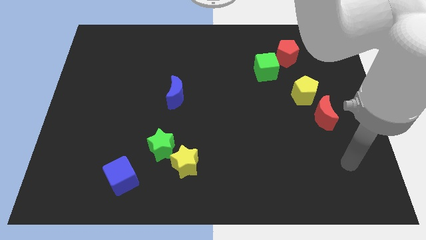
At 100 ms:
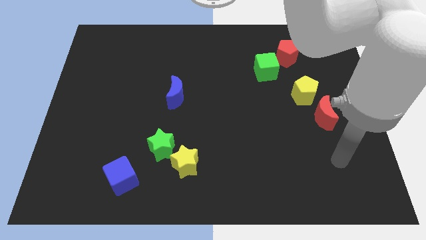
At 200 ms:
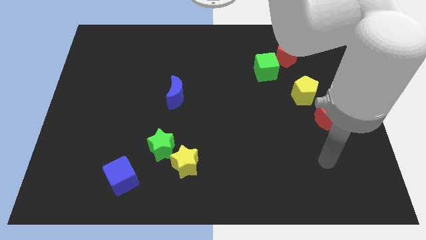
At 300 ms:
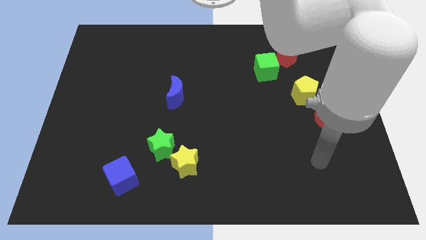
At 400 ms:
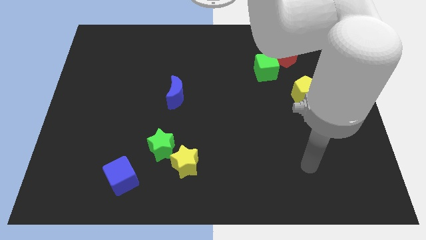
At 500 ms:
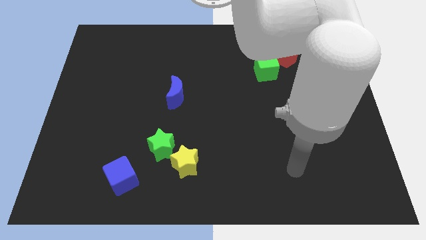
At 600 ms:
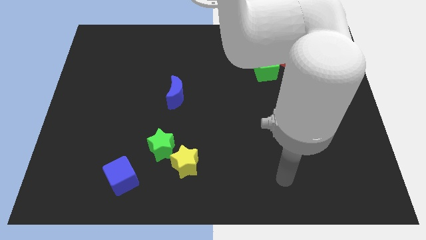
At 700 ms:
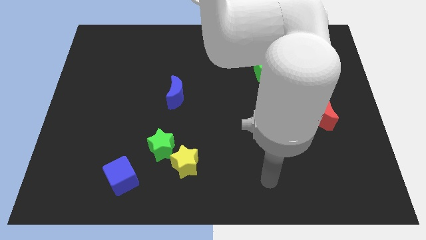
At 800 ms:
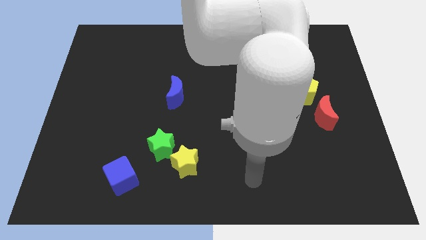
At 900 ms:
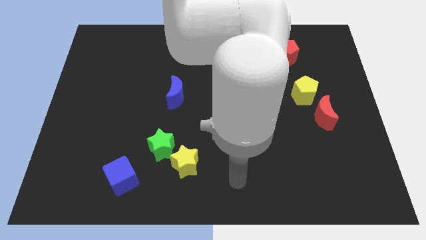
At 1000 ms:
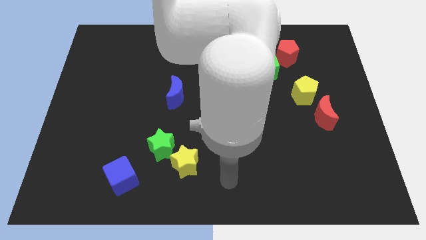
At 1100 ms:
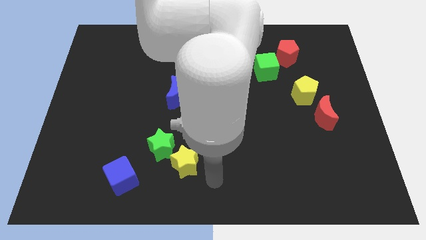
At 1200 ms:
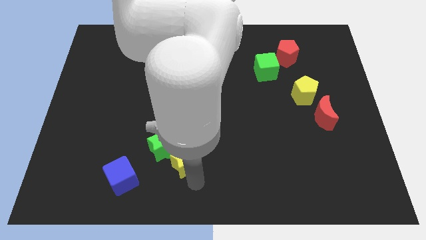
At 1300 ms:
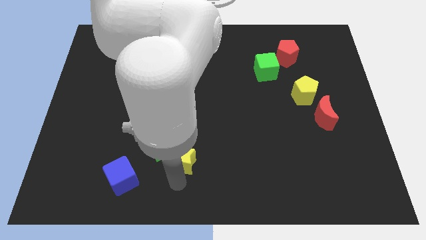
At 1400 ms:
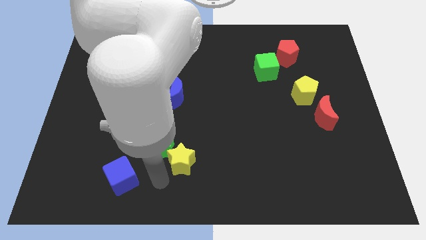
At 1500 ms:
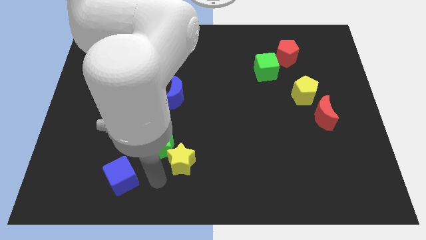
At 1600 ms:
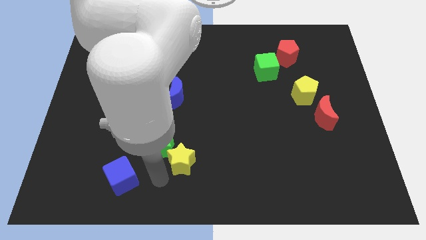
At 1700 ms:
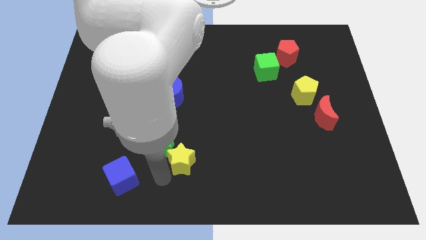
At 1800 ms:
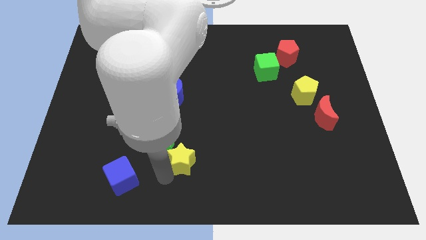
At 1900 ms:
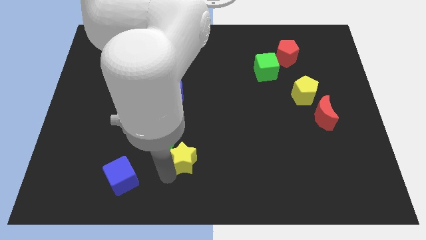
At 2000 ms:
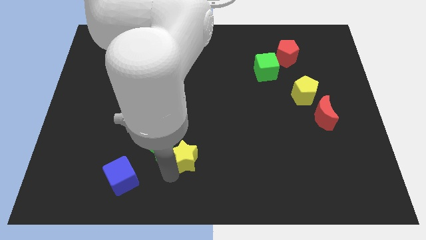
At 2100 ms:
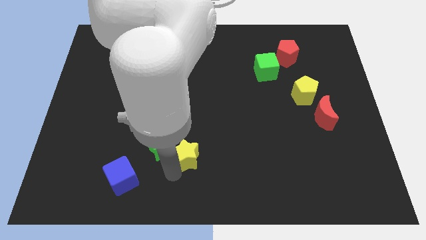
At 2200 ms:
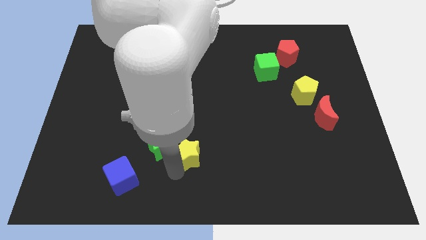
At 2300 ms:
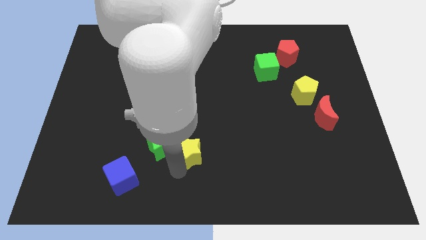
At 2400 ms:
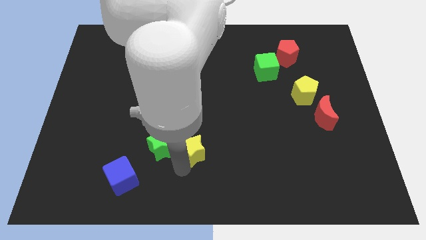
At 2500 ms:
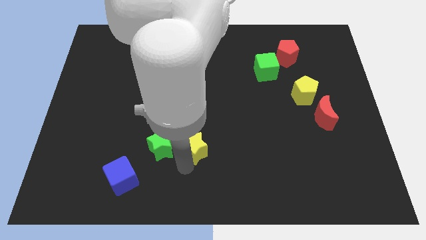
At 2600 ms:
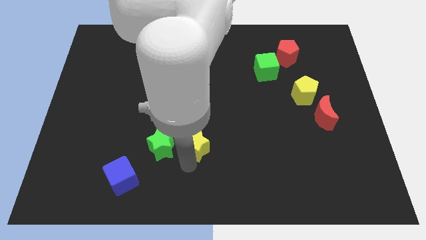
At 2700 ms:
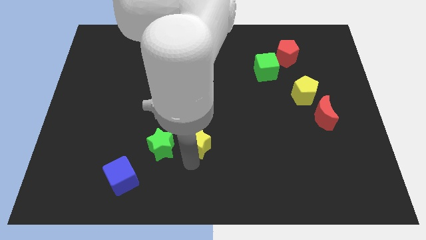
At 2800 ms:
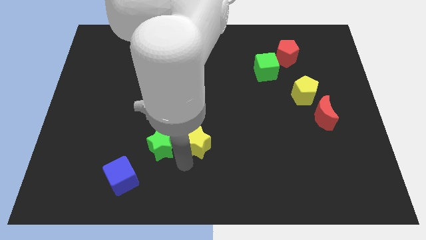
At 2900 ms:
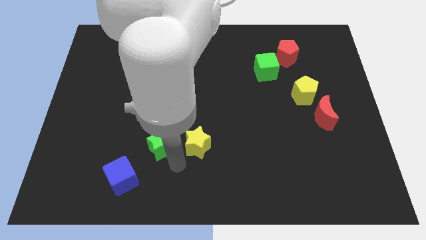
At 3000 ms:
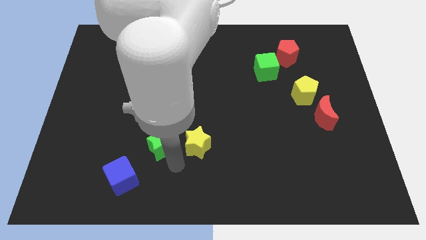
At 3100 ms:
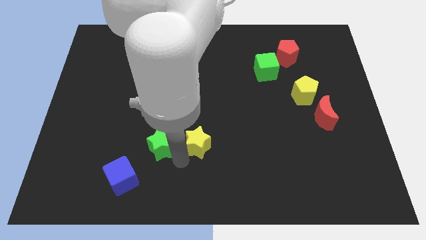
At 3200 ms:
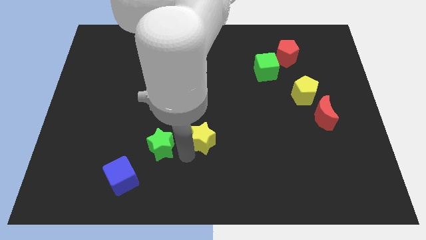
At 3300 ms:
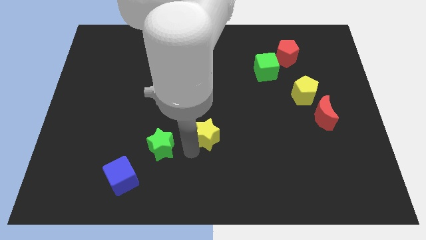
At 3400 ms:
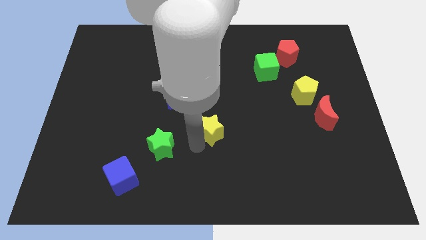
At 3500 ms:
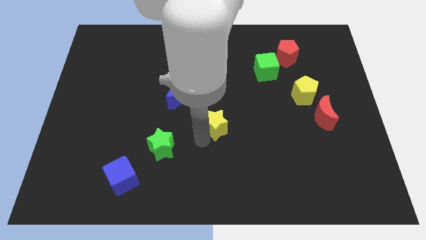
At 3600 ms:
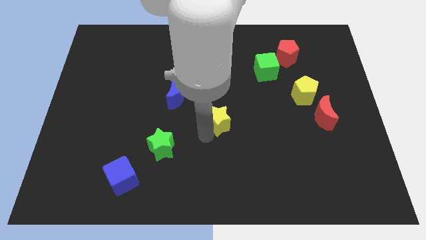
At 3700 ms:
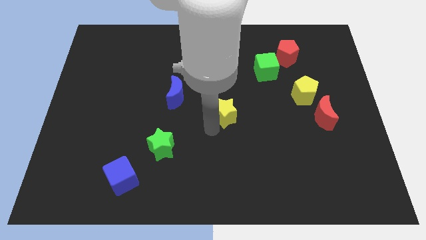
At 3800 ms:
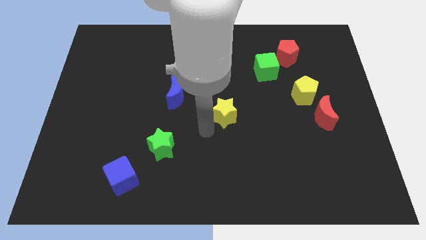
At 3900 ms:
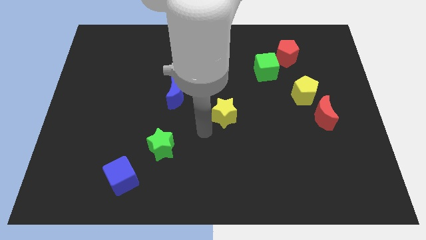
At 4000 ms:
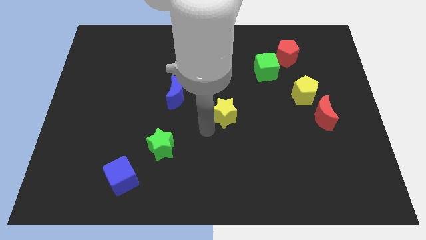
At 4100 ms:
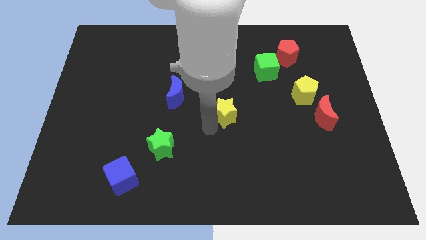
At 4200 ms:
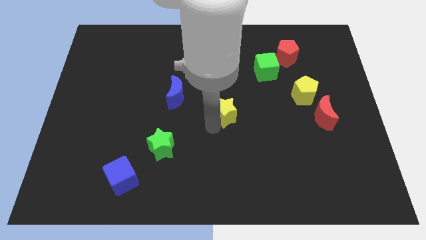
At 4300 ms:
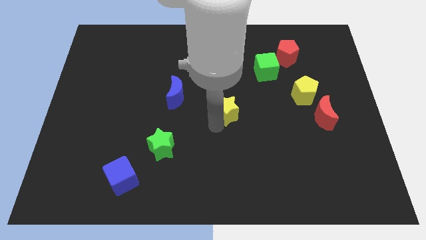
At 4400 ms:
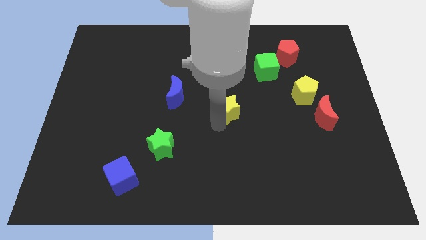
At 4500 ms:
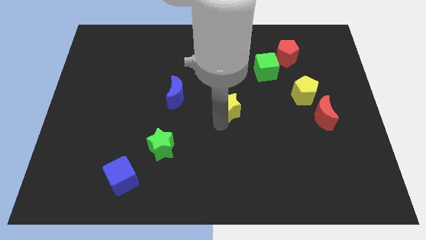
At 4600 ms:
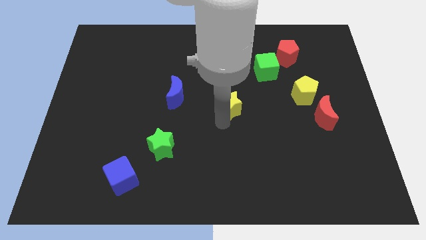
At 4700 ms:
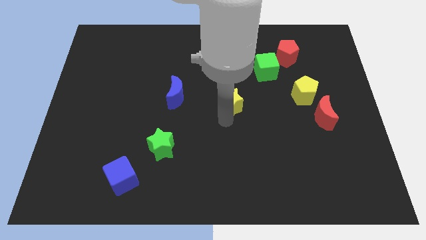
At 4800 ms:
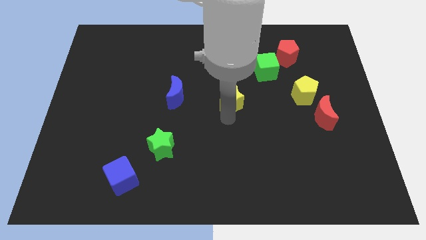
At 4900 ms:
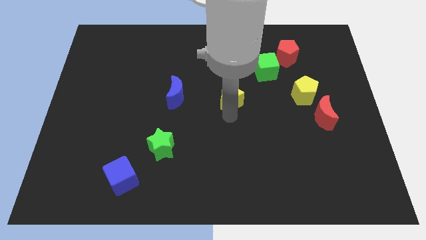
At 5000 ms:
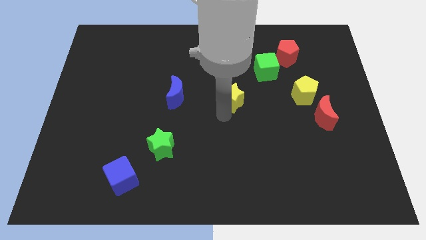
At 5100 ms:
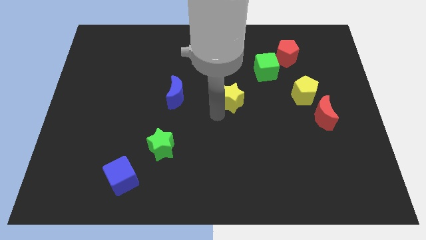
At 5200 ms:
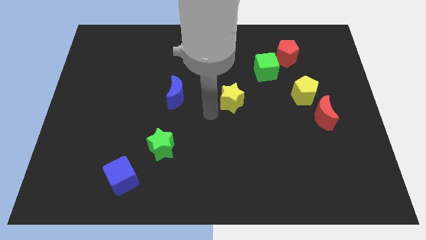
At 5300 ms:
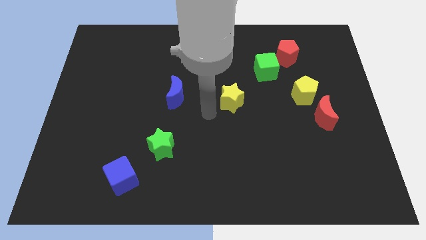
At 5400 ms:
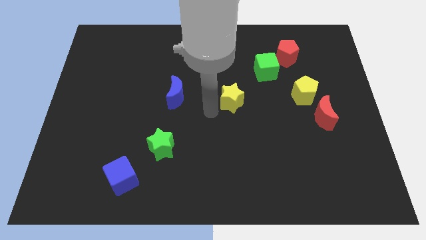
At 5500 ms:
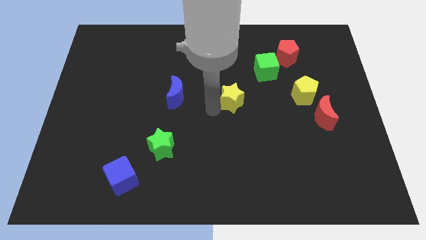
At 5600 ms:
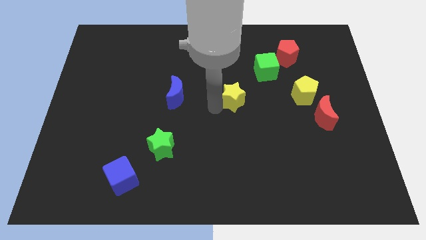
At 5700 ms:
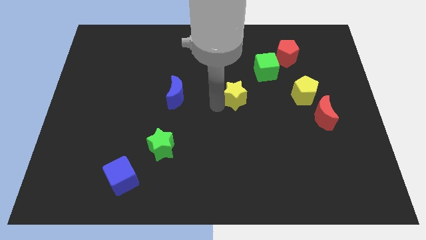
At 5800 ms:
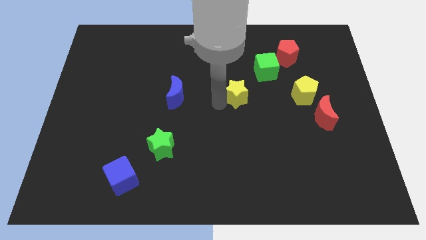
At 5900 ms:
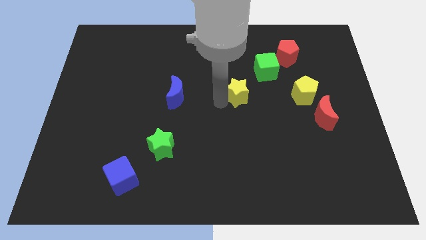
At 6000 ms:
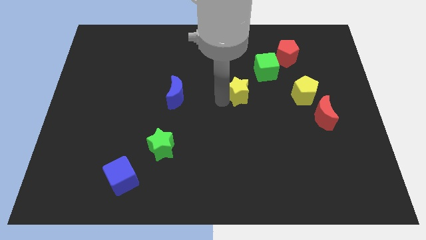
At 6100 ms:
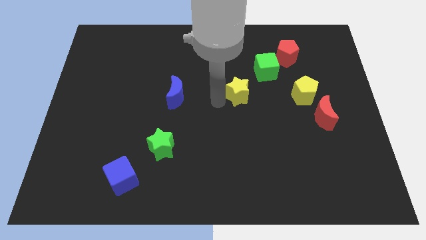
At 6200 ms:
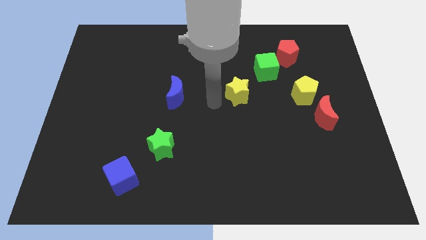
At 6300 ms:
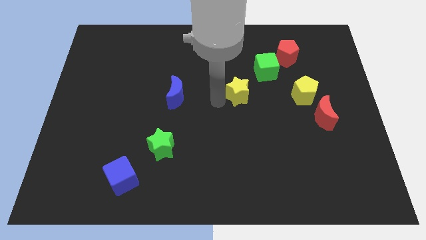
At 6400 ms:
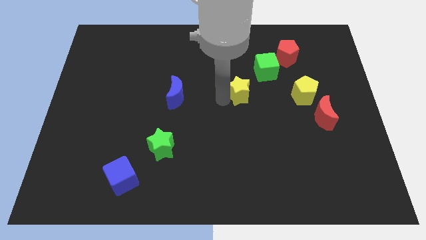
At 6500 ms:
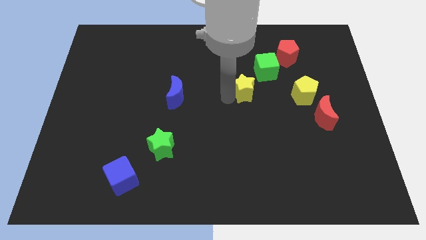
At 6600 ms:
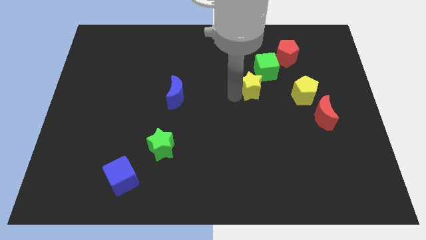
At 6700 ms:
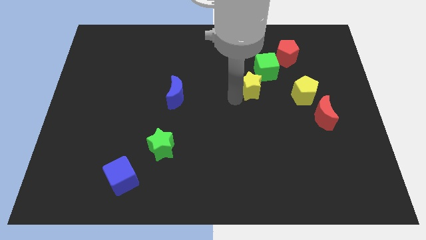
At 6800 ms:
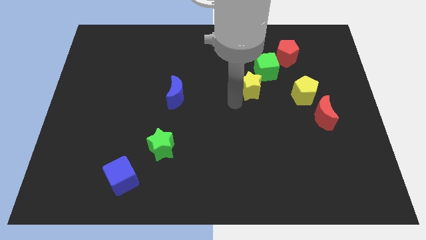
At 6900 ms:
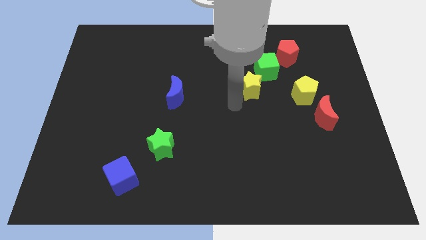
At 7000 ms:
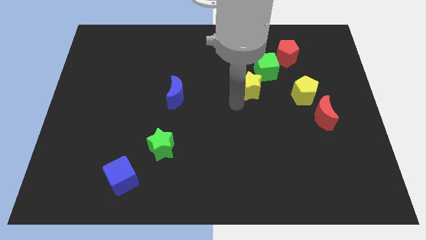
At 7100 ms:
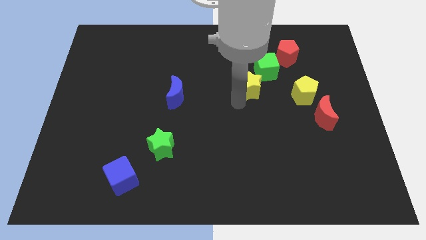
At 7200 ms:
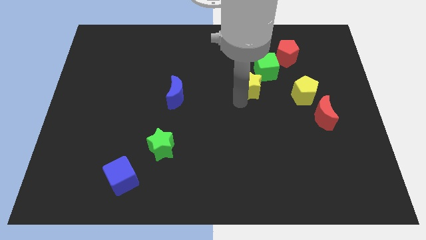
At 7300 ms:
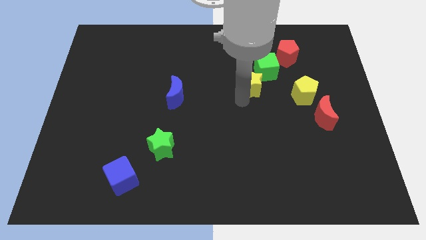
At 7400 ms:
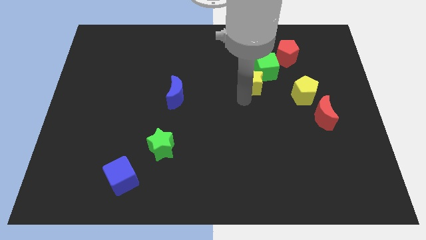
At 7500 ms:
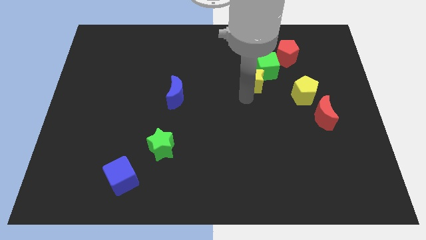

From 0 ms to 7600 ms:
slide the yellow star to the green cube
